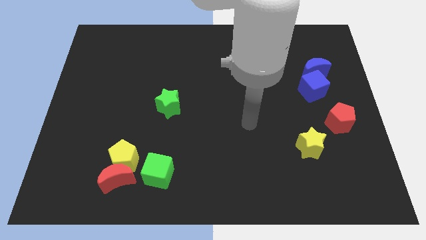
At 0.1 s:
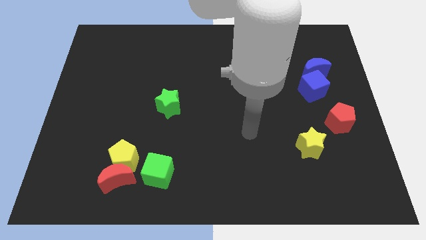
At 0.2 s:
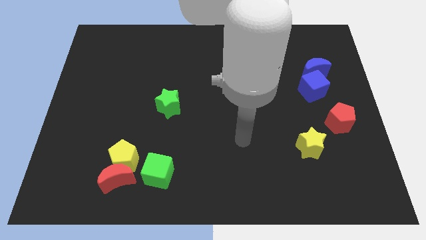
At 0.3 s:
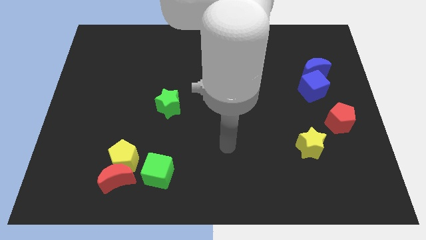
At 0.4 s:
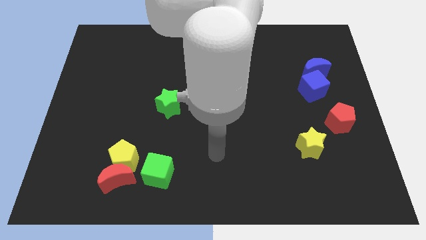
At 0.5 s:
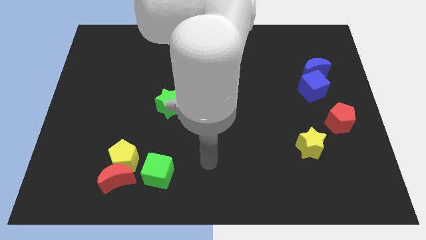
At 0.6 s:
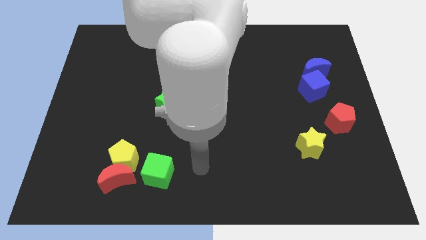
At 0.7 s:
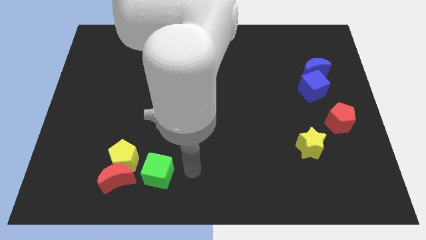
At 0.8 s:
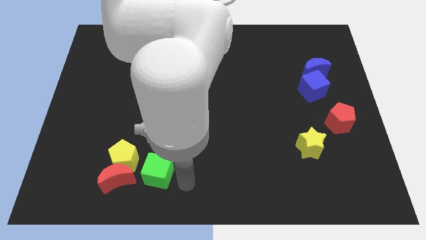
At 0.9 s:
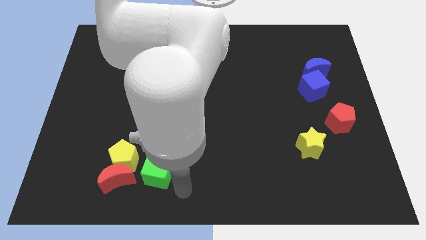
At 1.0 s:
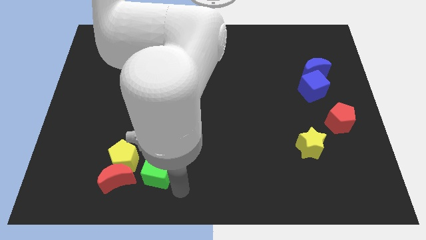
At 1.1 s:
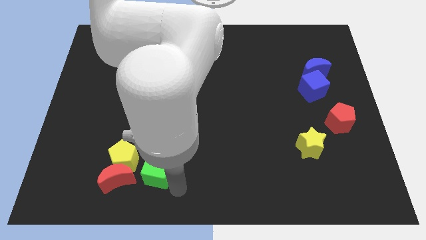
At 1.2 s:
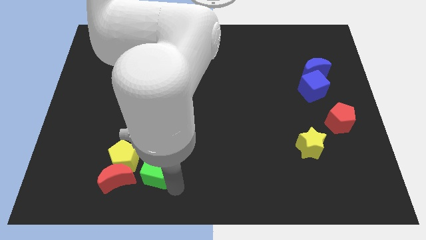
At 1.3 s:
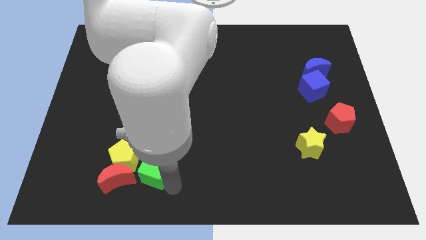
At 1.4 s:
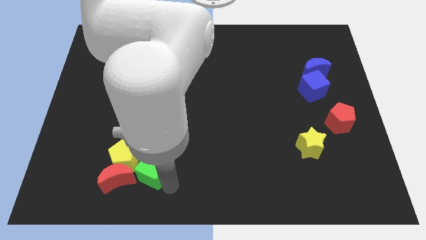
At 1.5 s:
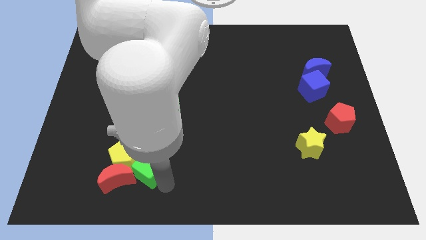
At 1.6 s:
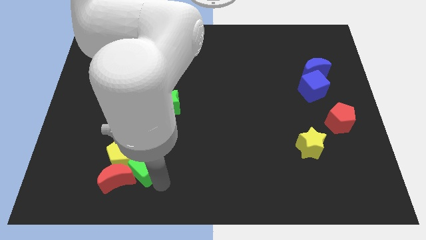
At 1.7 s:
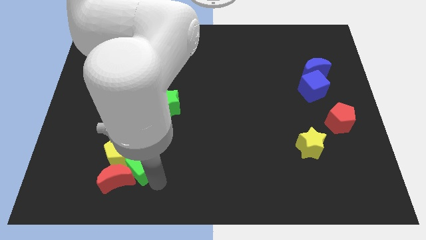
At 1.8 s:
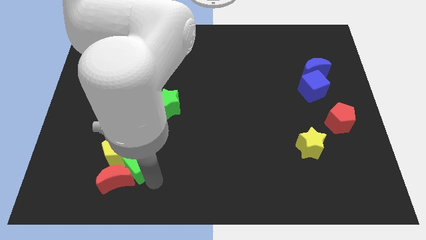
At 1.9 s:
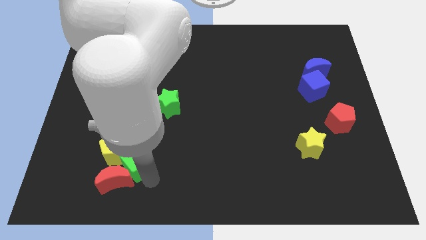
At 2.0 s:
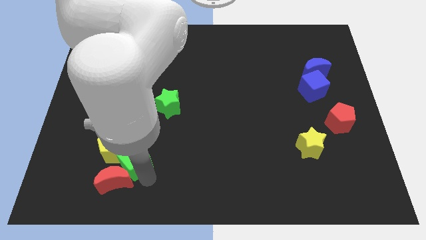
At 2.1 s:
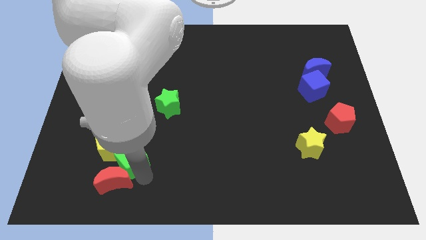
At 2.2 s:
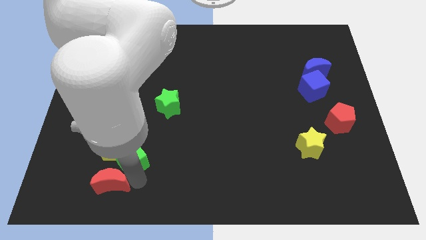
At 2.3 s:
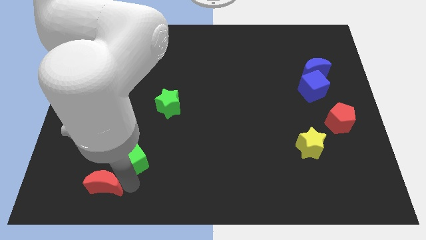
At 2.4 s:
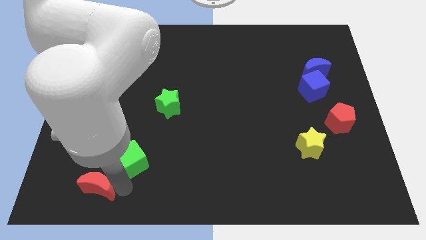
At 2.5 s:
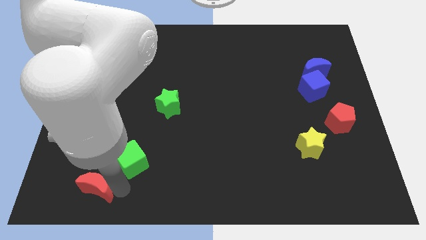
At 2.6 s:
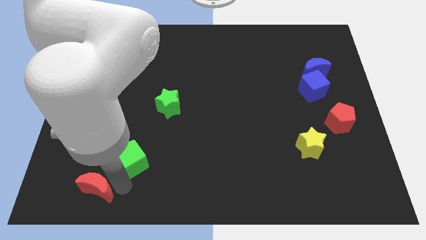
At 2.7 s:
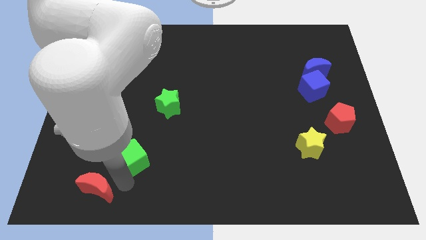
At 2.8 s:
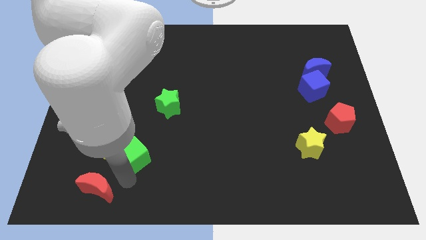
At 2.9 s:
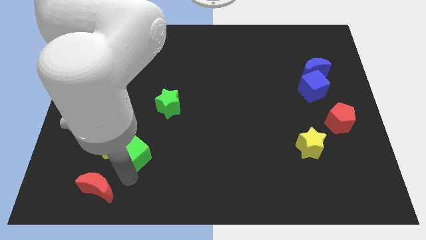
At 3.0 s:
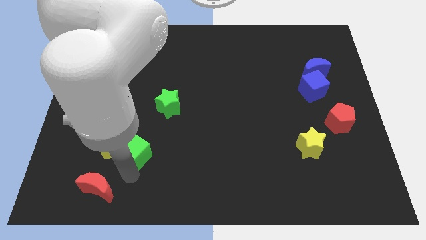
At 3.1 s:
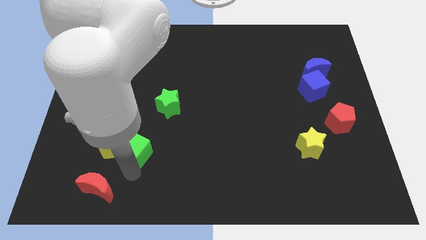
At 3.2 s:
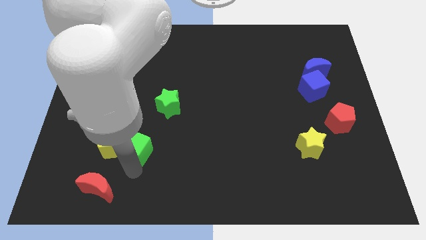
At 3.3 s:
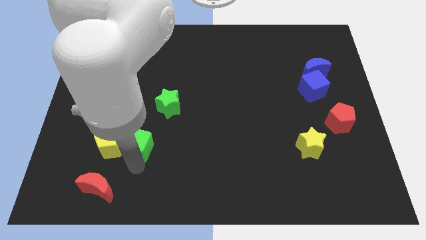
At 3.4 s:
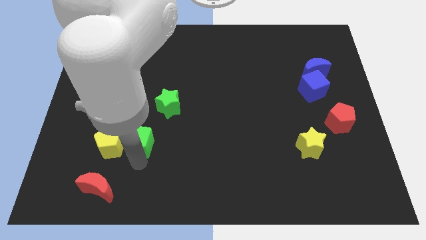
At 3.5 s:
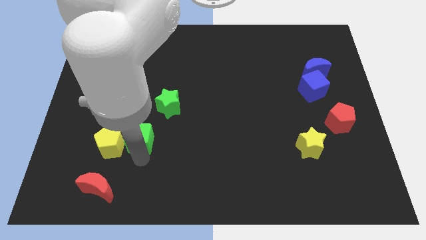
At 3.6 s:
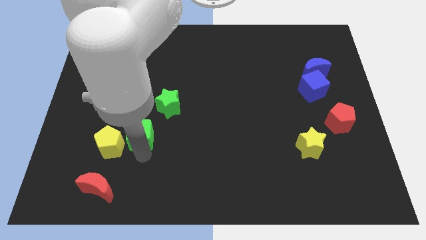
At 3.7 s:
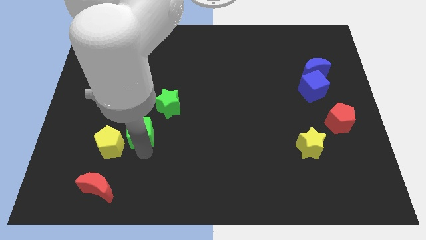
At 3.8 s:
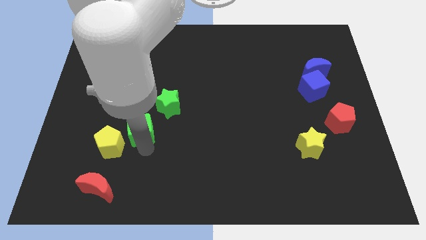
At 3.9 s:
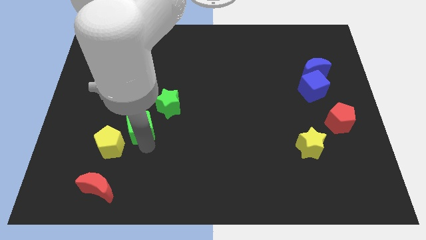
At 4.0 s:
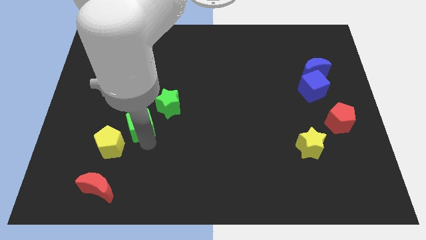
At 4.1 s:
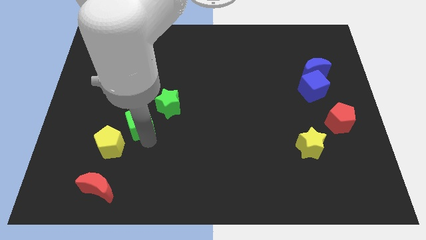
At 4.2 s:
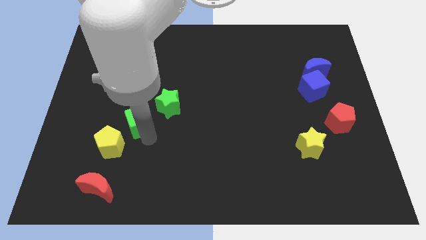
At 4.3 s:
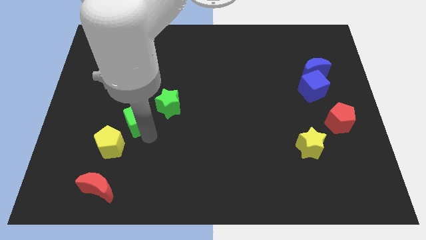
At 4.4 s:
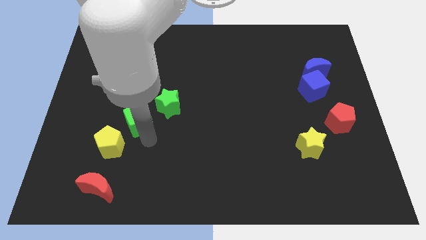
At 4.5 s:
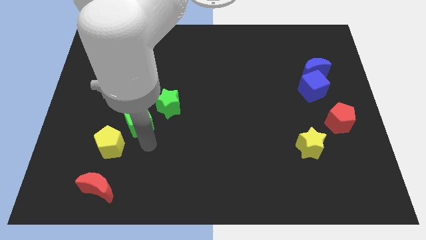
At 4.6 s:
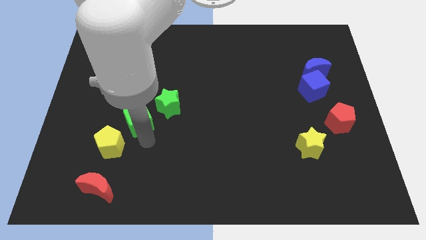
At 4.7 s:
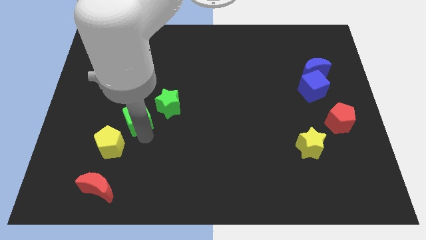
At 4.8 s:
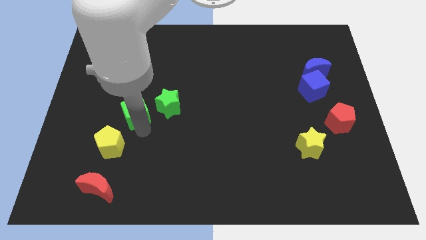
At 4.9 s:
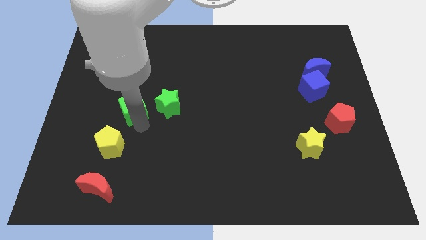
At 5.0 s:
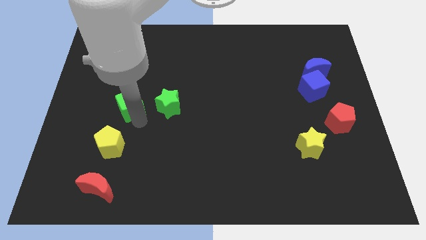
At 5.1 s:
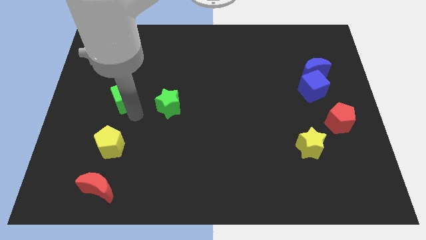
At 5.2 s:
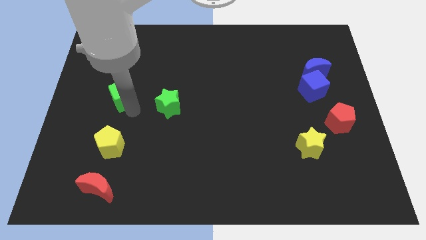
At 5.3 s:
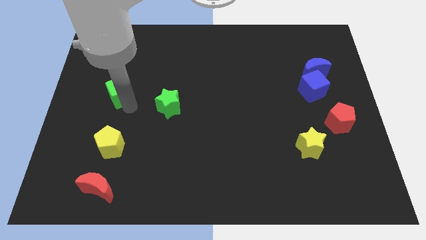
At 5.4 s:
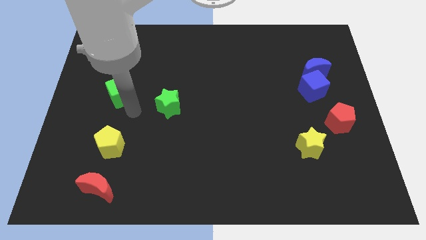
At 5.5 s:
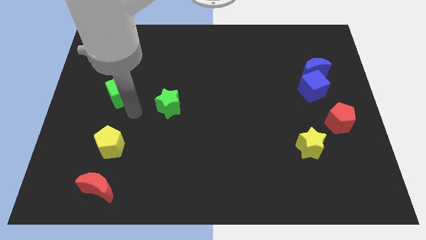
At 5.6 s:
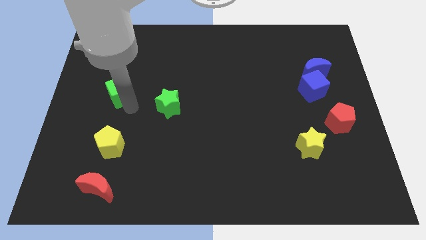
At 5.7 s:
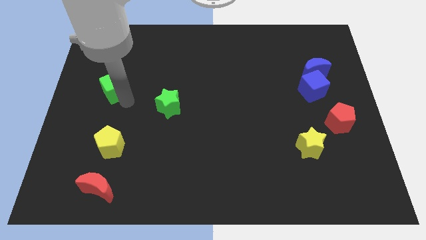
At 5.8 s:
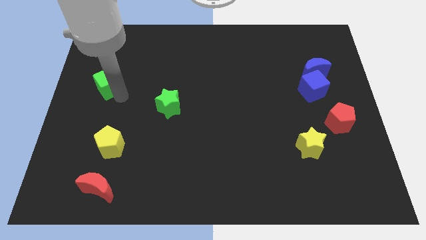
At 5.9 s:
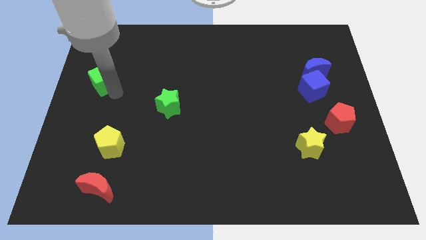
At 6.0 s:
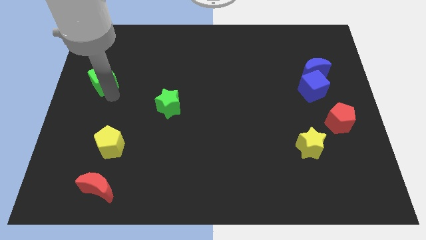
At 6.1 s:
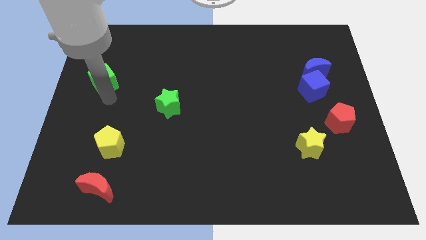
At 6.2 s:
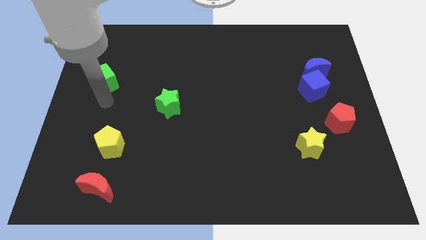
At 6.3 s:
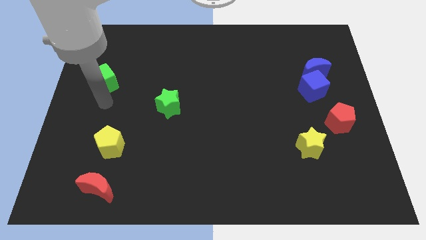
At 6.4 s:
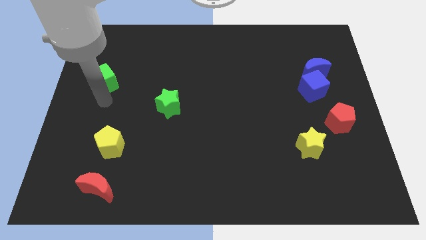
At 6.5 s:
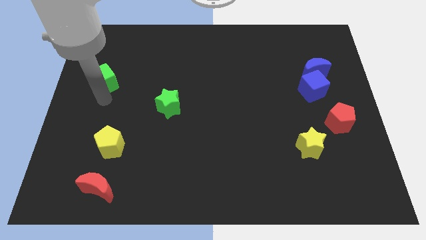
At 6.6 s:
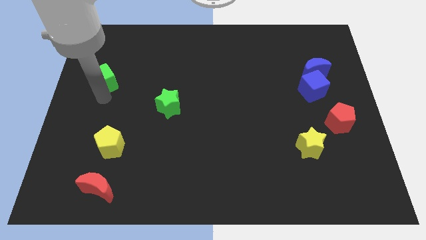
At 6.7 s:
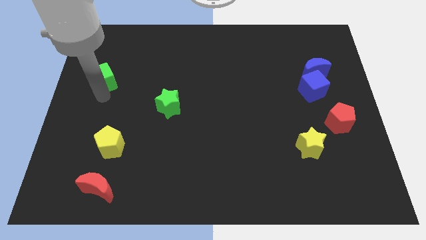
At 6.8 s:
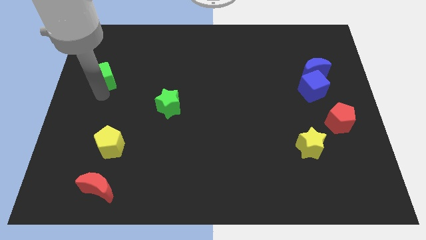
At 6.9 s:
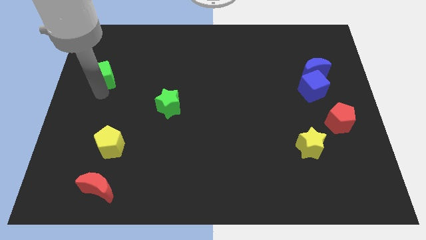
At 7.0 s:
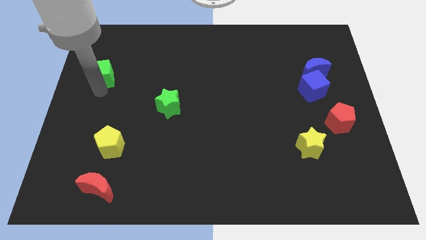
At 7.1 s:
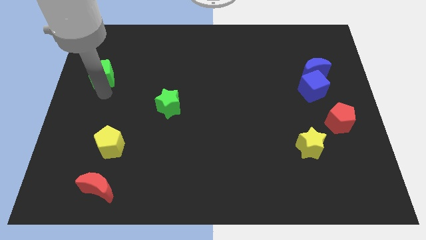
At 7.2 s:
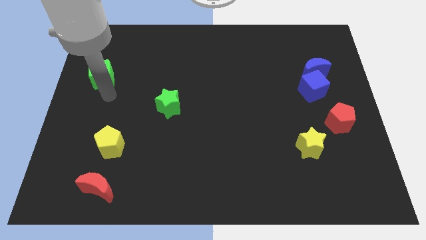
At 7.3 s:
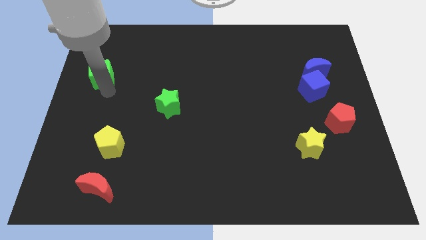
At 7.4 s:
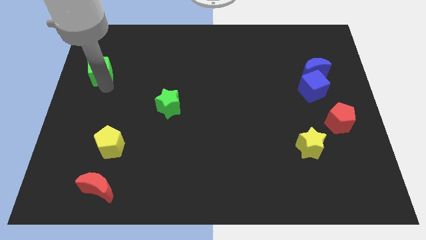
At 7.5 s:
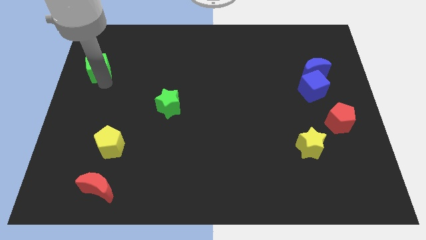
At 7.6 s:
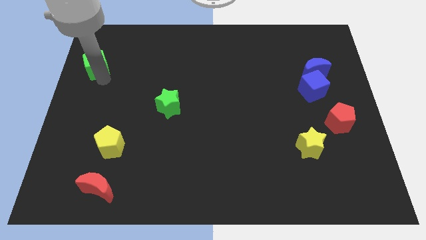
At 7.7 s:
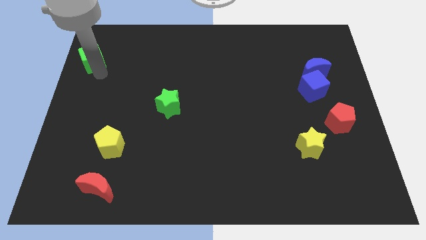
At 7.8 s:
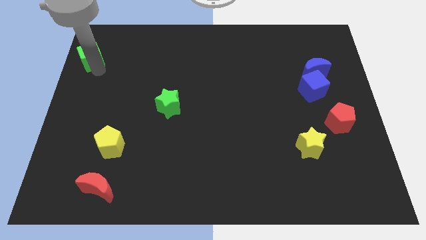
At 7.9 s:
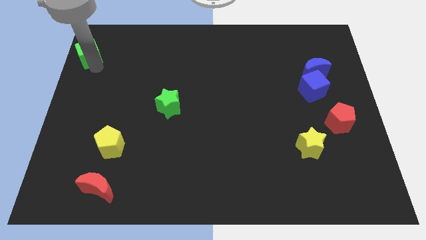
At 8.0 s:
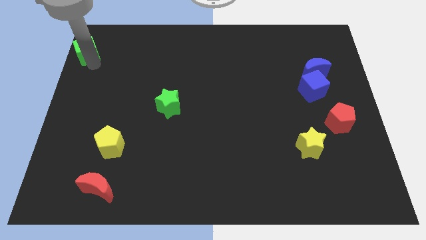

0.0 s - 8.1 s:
move the green cube to the top left of the board
